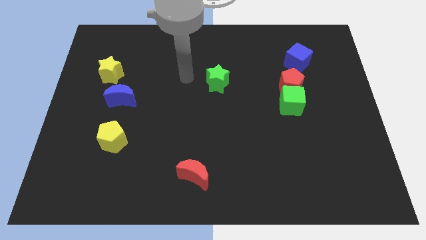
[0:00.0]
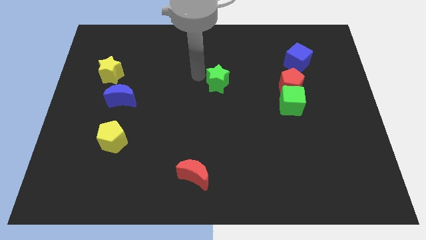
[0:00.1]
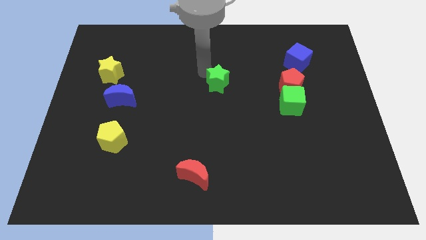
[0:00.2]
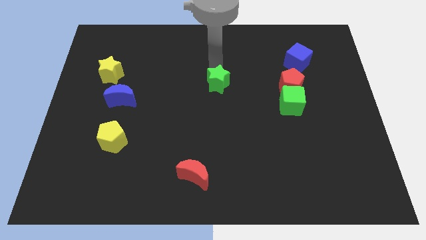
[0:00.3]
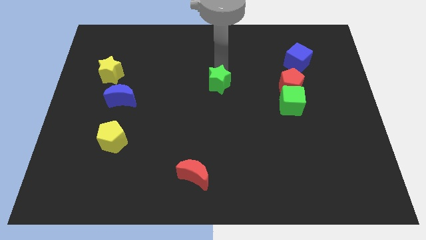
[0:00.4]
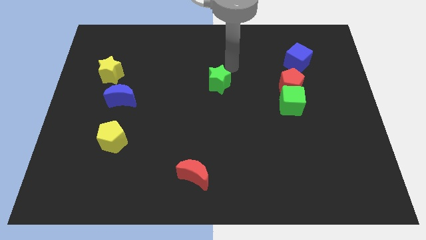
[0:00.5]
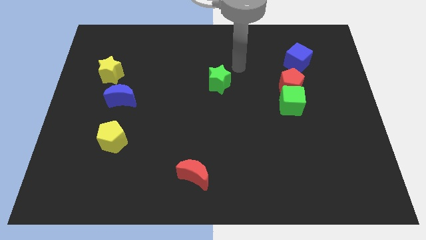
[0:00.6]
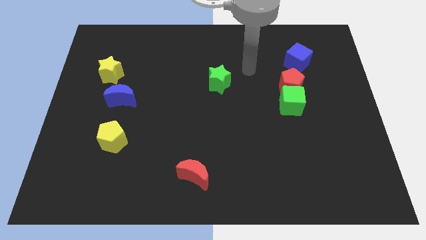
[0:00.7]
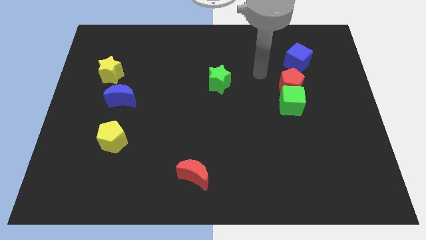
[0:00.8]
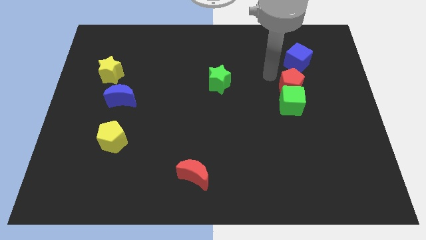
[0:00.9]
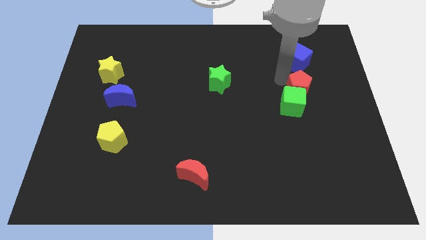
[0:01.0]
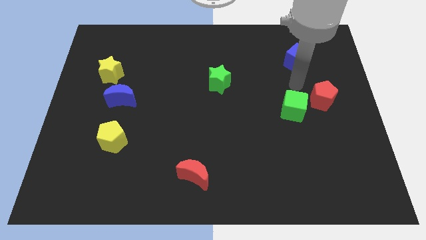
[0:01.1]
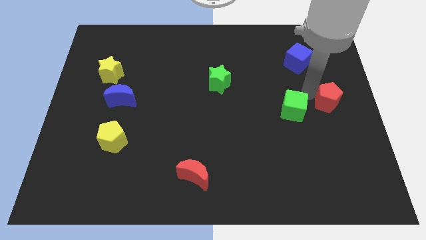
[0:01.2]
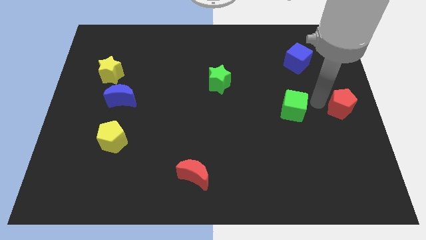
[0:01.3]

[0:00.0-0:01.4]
move the green cube away from the red pentagon

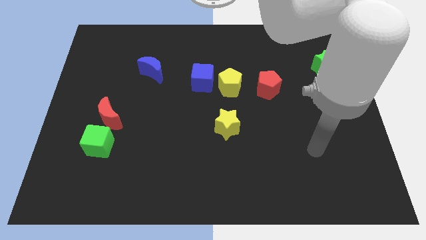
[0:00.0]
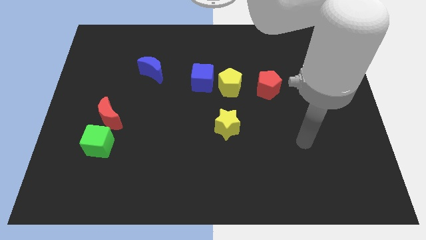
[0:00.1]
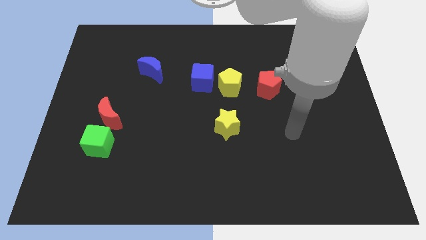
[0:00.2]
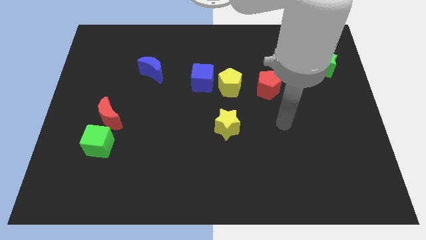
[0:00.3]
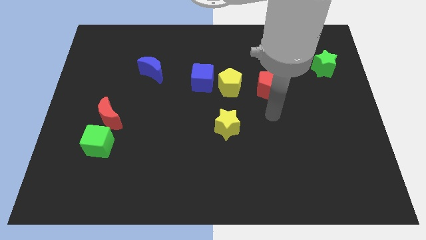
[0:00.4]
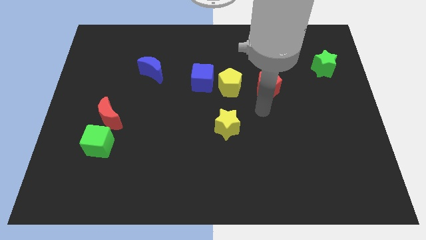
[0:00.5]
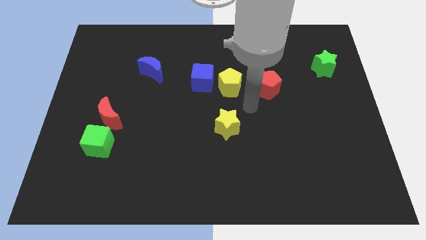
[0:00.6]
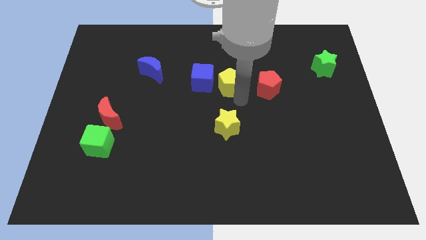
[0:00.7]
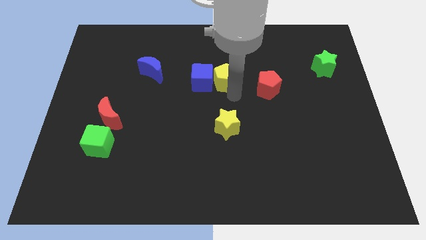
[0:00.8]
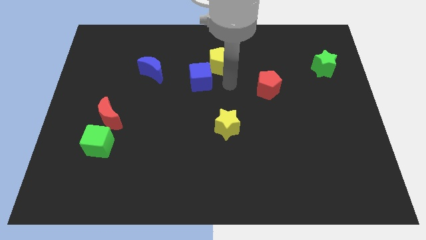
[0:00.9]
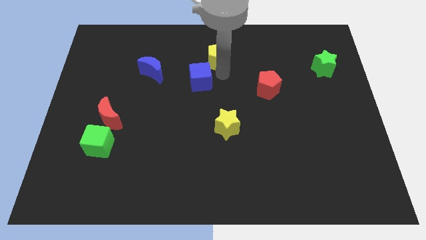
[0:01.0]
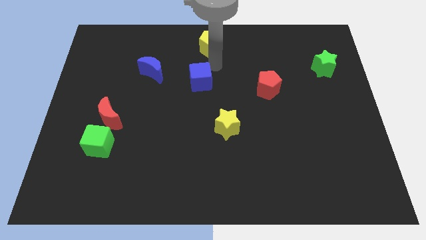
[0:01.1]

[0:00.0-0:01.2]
separate the blue cube from the yellow pentagon

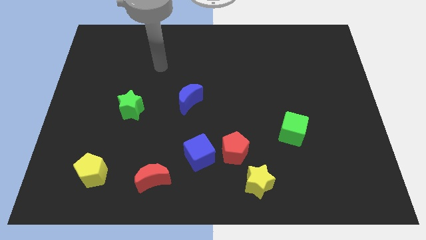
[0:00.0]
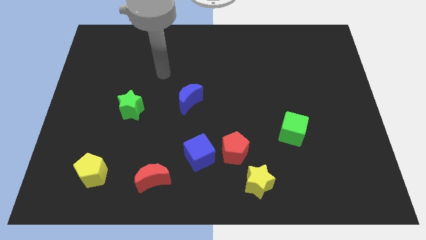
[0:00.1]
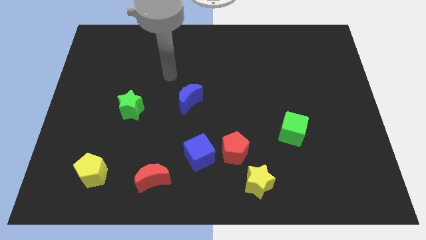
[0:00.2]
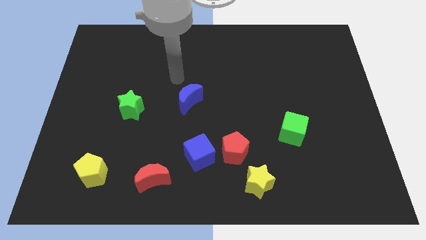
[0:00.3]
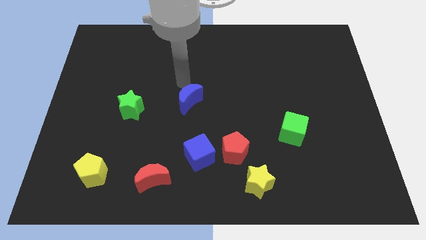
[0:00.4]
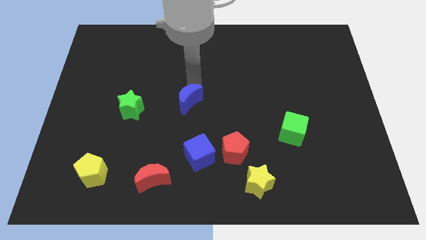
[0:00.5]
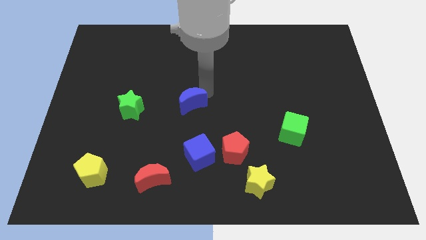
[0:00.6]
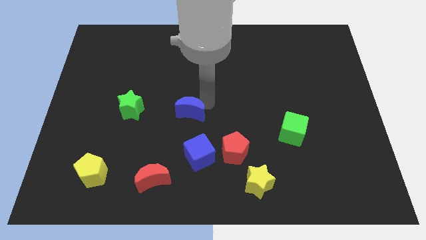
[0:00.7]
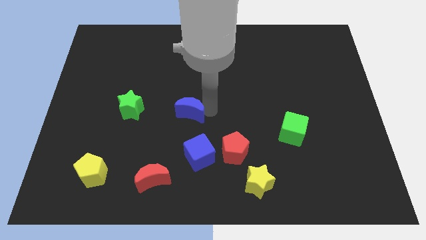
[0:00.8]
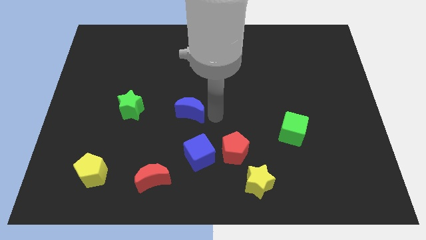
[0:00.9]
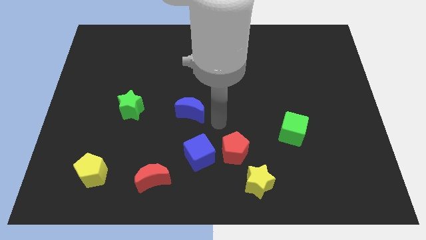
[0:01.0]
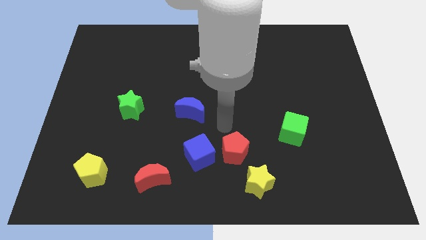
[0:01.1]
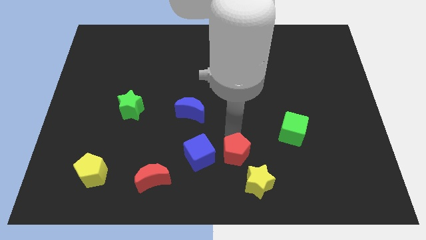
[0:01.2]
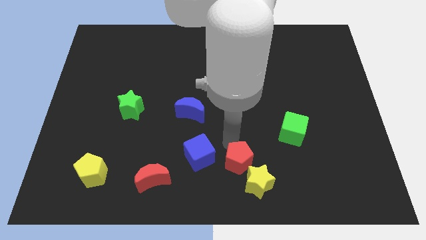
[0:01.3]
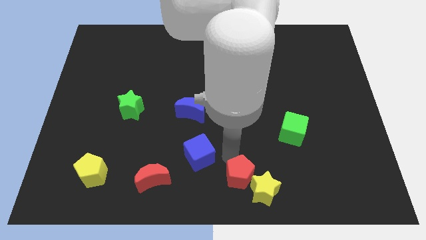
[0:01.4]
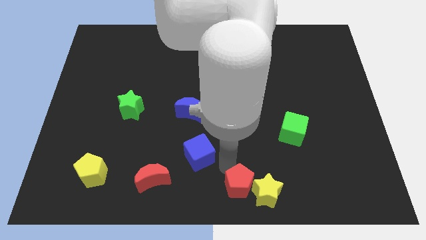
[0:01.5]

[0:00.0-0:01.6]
separate the blue cube from the red pentagon

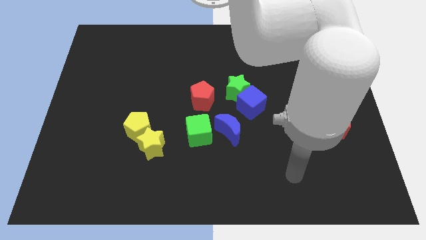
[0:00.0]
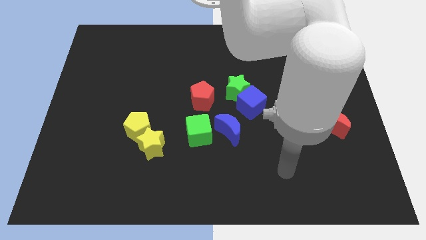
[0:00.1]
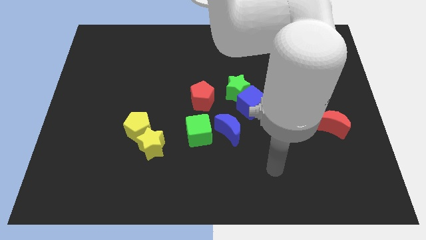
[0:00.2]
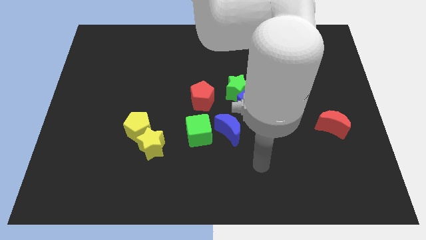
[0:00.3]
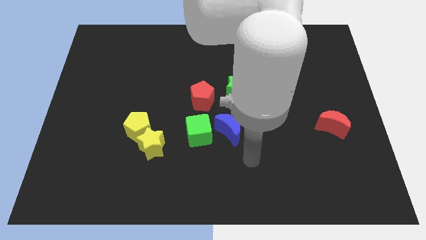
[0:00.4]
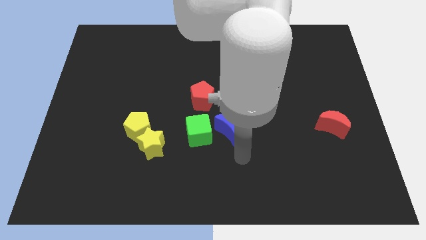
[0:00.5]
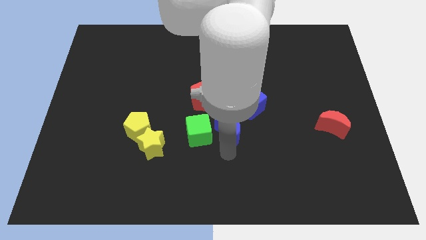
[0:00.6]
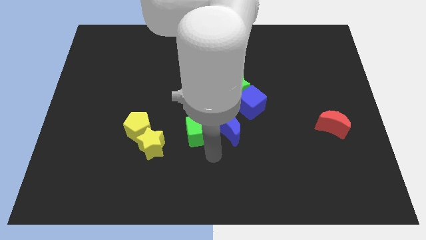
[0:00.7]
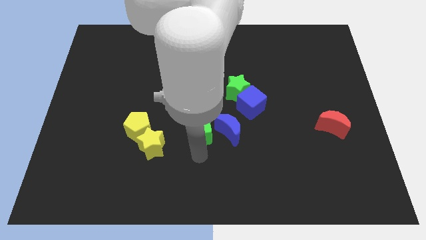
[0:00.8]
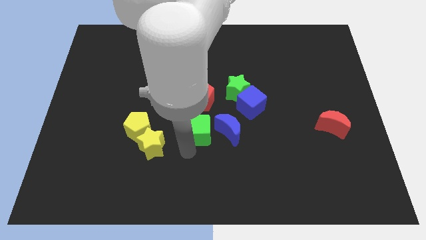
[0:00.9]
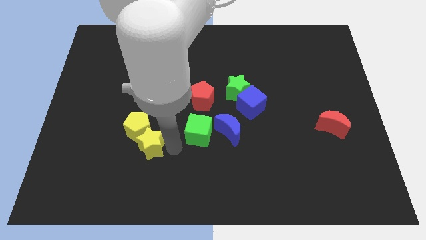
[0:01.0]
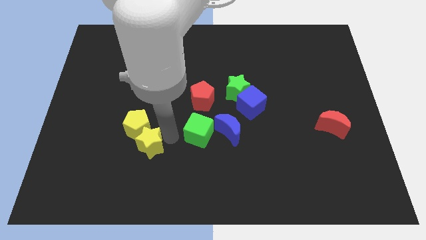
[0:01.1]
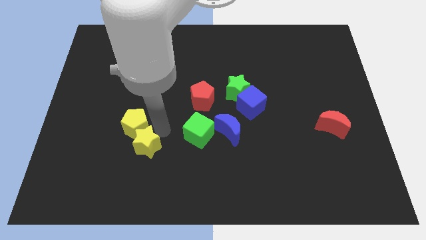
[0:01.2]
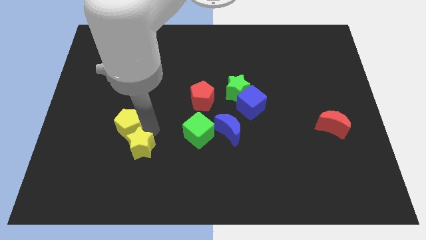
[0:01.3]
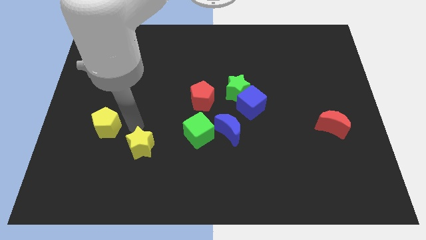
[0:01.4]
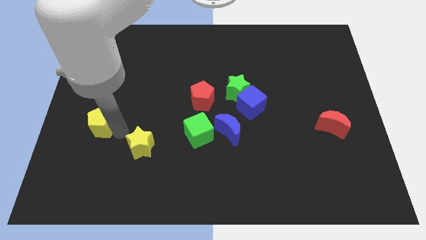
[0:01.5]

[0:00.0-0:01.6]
separate the yellow star from the yellow pentagon

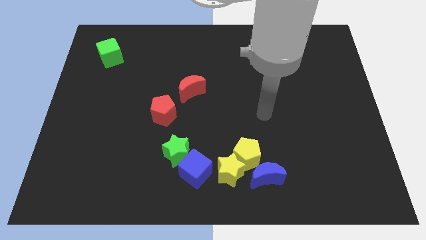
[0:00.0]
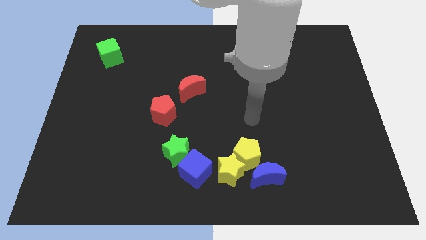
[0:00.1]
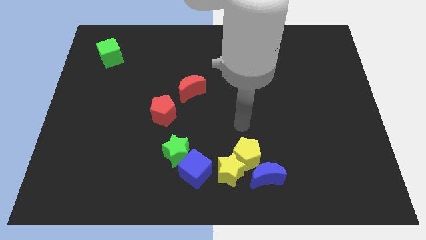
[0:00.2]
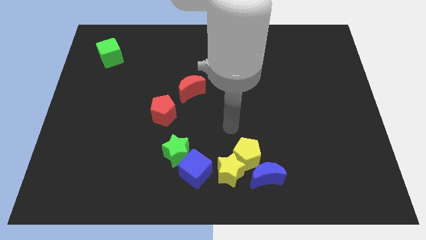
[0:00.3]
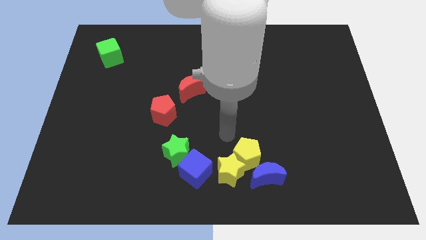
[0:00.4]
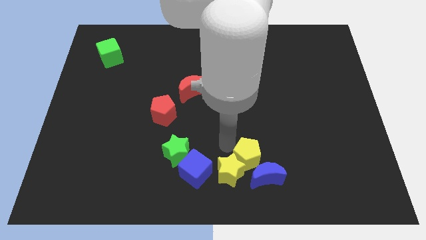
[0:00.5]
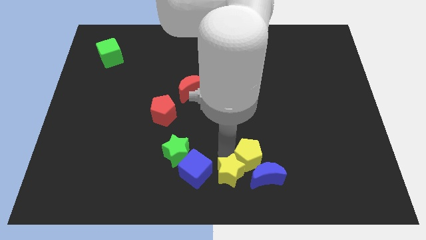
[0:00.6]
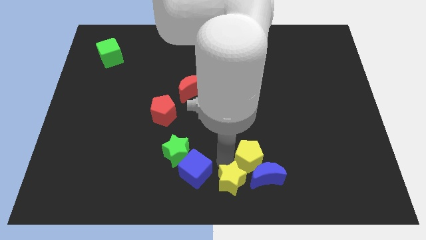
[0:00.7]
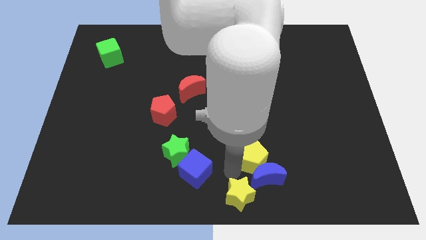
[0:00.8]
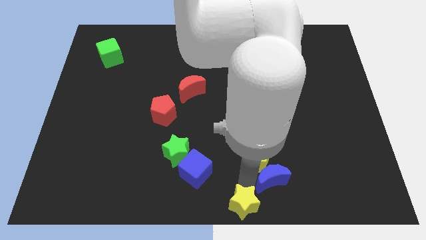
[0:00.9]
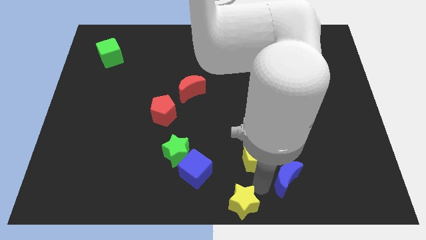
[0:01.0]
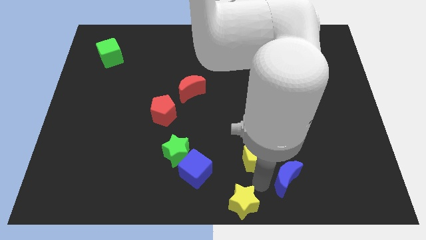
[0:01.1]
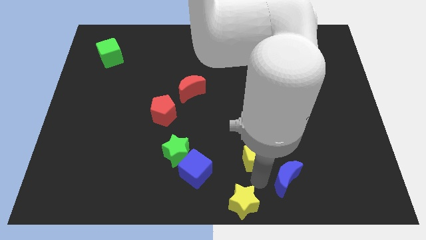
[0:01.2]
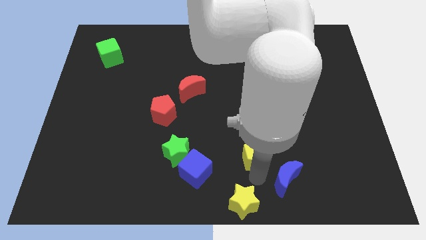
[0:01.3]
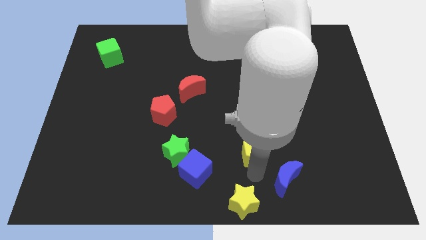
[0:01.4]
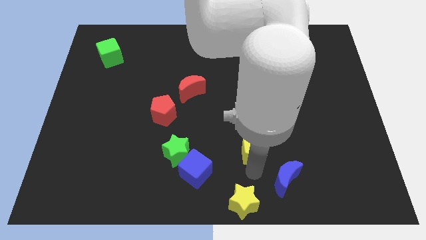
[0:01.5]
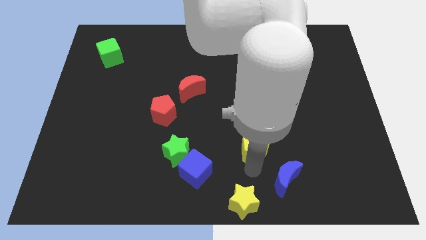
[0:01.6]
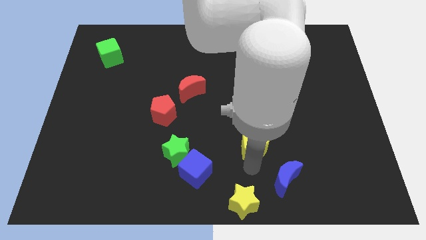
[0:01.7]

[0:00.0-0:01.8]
separate the yellow pentagon from the yellow star and blue moon

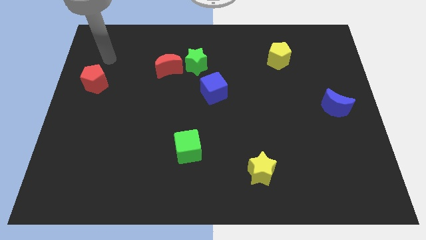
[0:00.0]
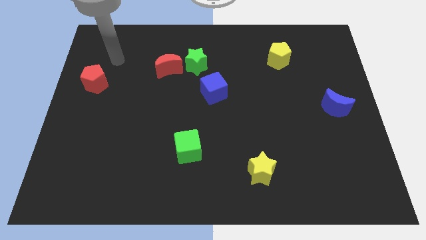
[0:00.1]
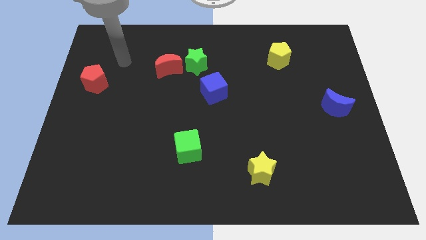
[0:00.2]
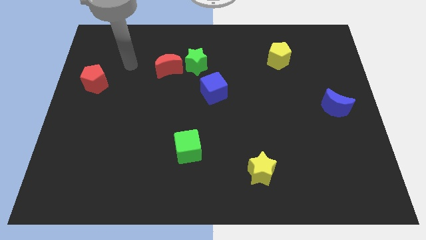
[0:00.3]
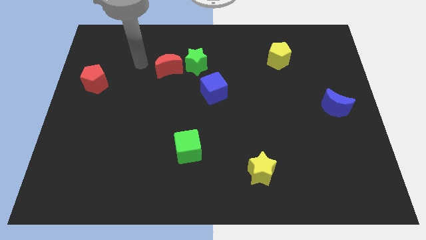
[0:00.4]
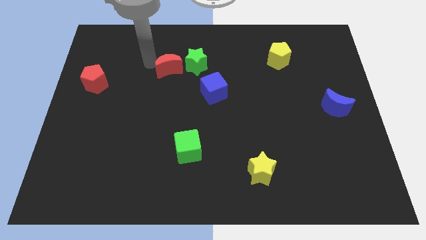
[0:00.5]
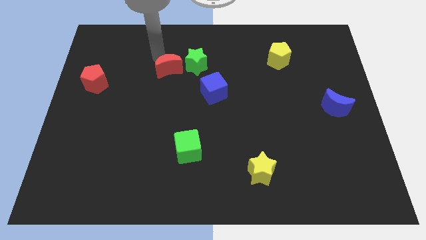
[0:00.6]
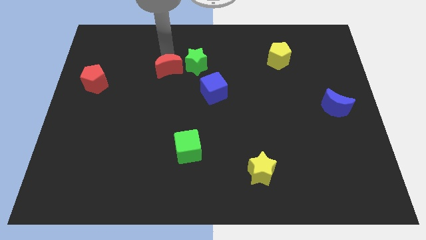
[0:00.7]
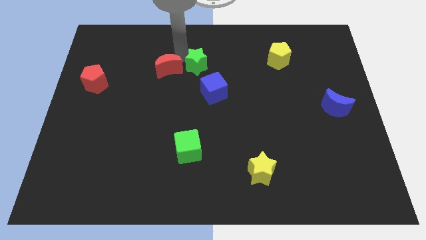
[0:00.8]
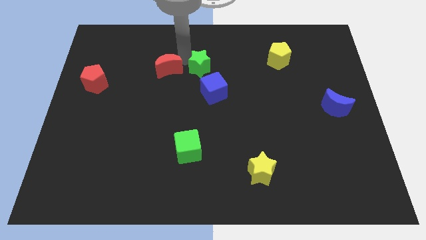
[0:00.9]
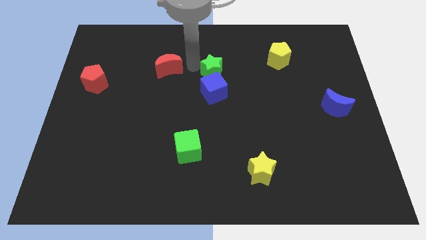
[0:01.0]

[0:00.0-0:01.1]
pull the red moon apart from the green star

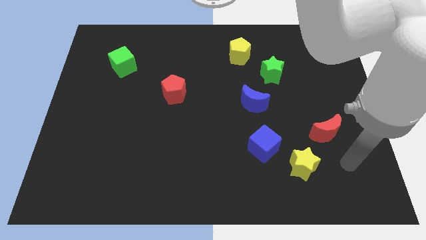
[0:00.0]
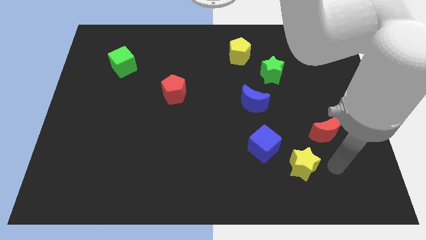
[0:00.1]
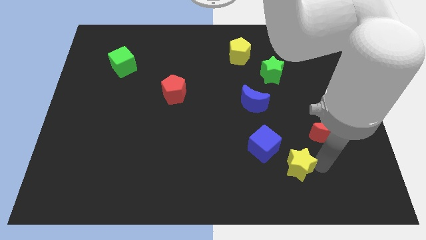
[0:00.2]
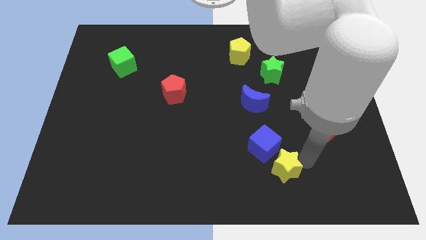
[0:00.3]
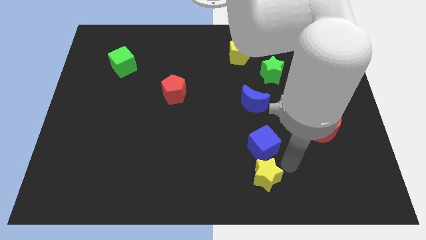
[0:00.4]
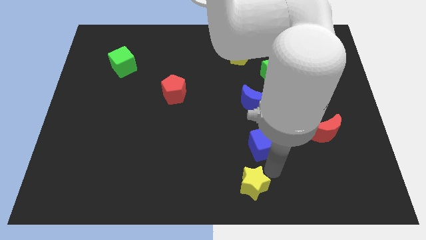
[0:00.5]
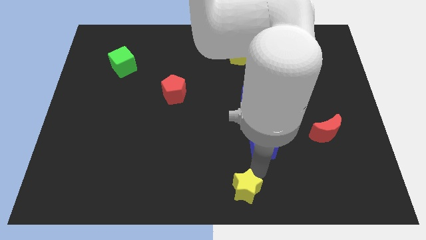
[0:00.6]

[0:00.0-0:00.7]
separate the blue cube from the yellow star
